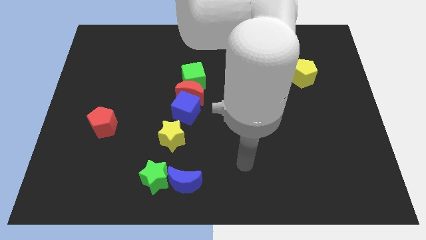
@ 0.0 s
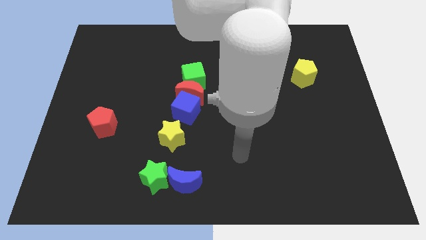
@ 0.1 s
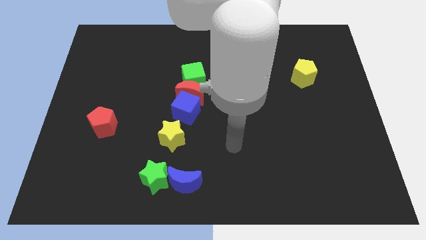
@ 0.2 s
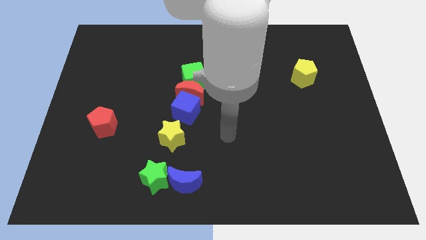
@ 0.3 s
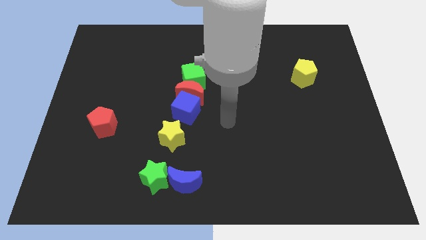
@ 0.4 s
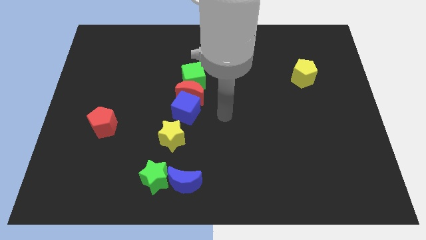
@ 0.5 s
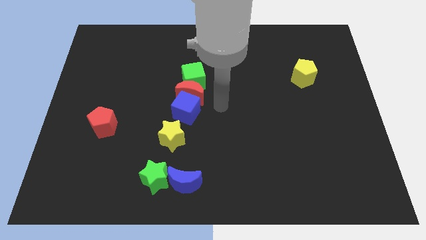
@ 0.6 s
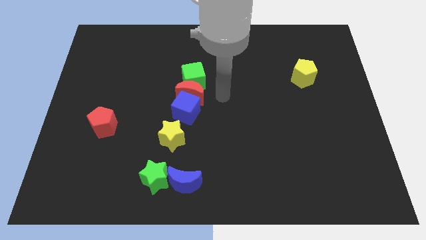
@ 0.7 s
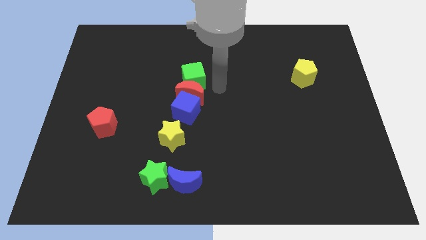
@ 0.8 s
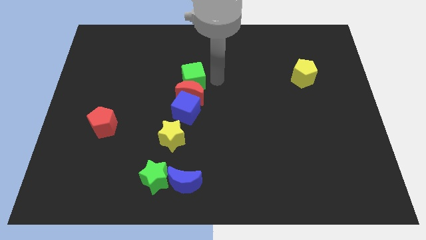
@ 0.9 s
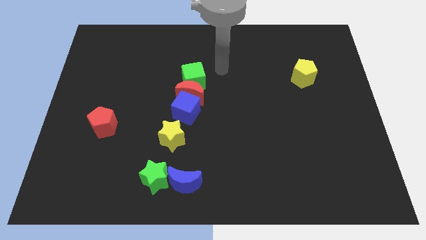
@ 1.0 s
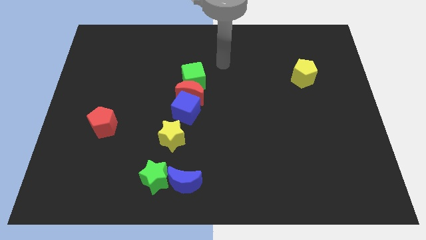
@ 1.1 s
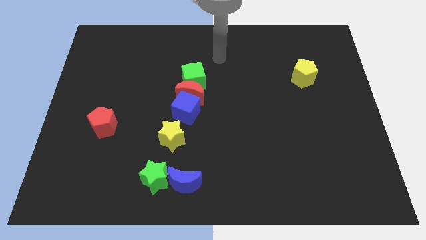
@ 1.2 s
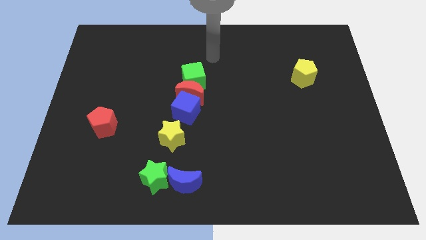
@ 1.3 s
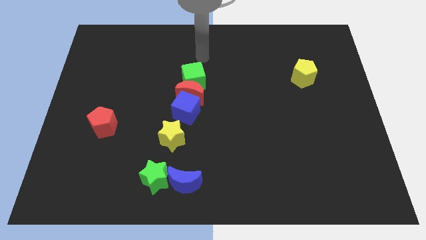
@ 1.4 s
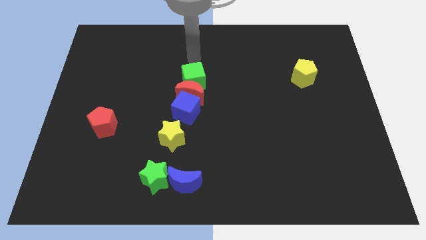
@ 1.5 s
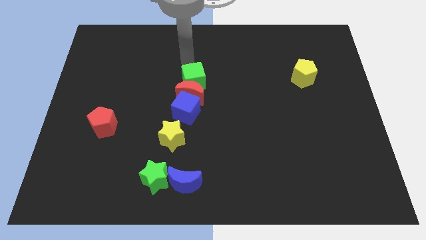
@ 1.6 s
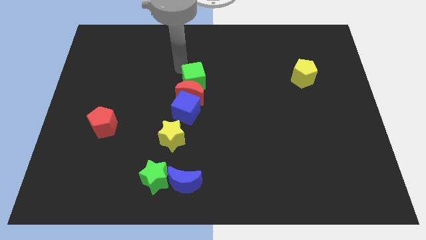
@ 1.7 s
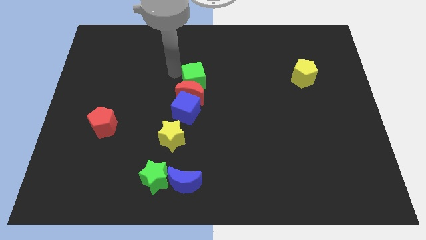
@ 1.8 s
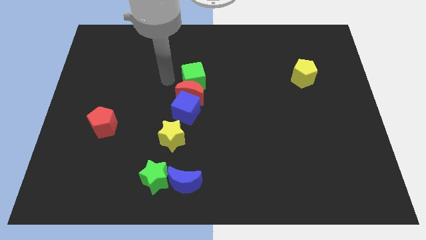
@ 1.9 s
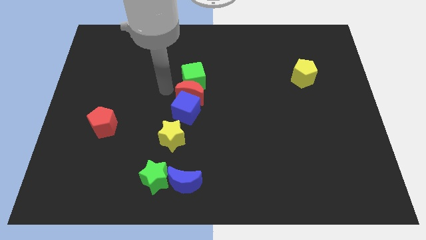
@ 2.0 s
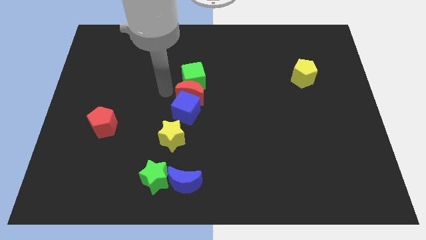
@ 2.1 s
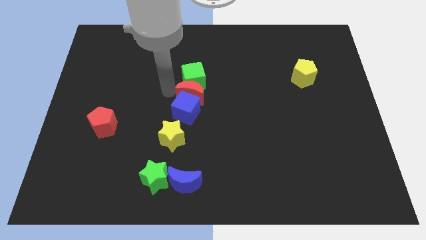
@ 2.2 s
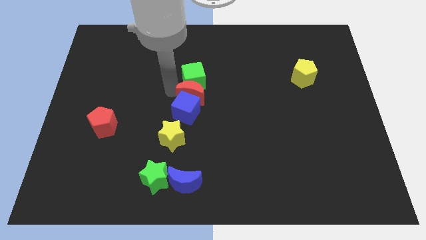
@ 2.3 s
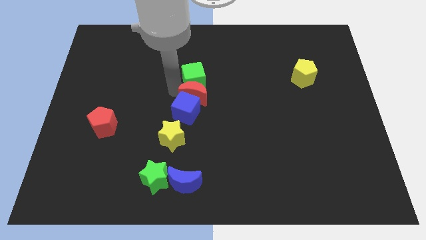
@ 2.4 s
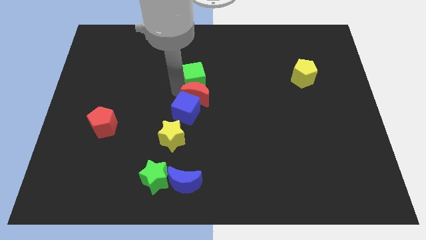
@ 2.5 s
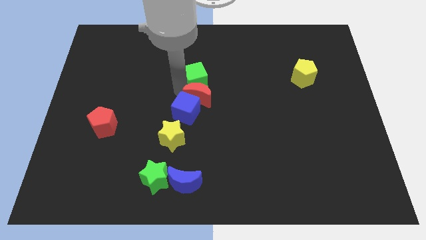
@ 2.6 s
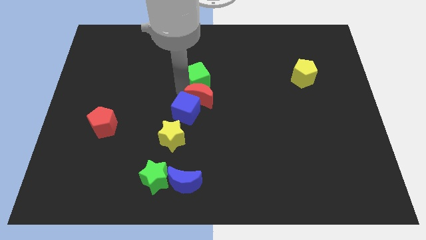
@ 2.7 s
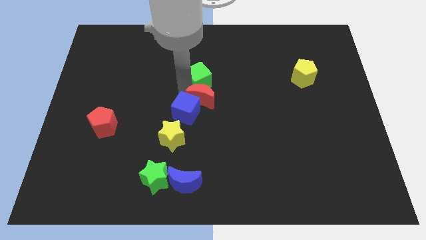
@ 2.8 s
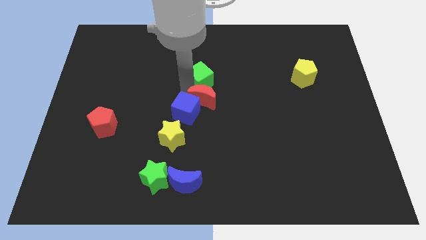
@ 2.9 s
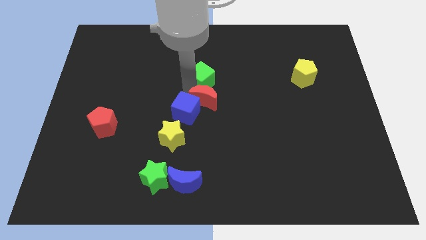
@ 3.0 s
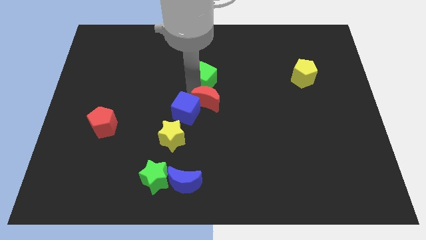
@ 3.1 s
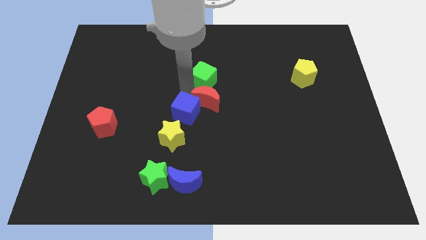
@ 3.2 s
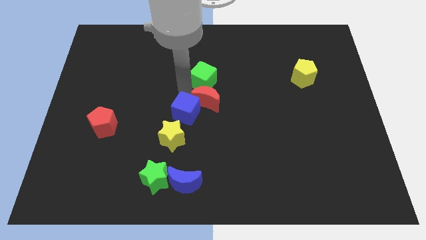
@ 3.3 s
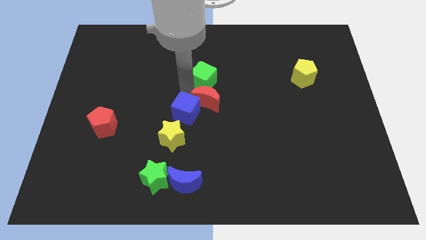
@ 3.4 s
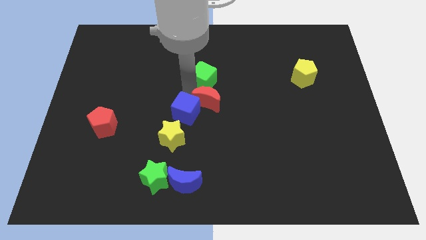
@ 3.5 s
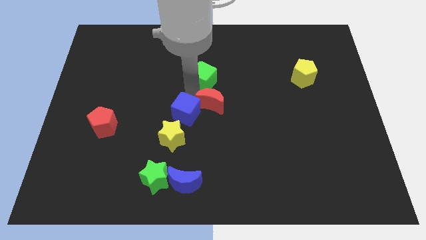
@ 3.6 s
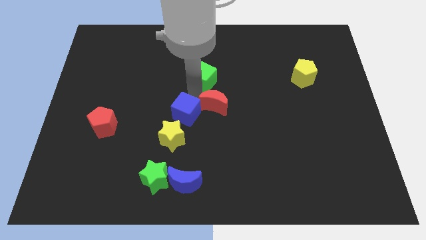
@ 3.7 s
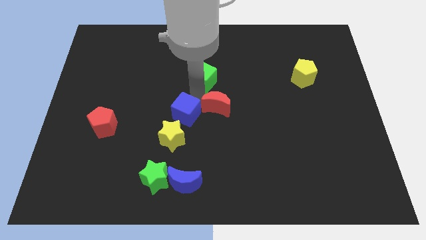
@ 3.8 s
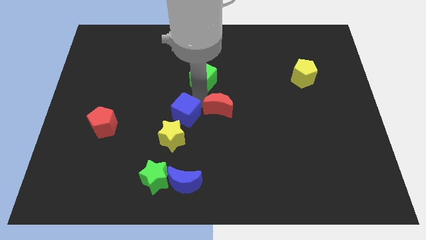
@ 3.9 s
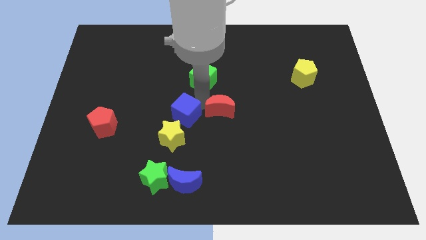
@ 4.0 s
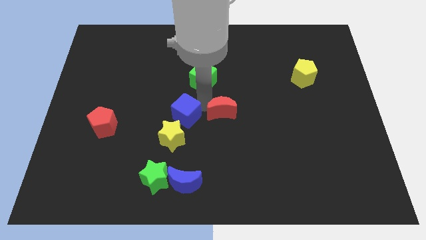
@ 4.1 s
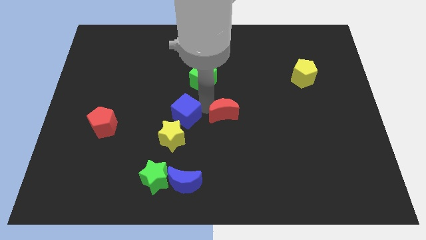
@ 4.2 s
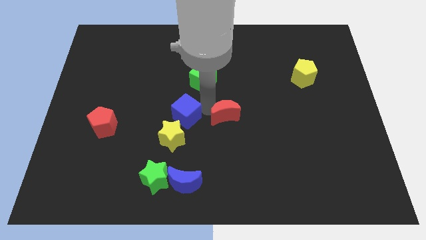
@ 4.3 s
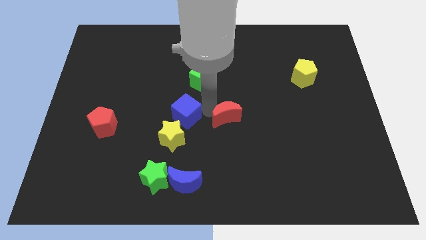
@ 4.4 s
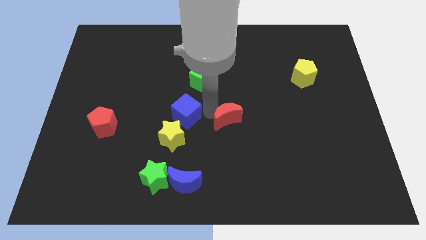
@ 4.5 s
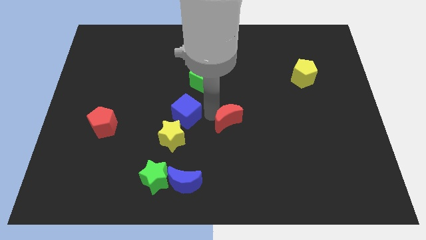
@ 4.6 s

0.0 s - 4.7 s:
pull the red moon apart from the green cube and blue cube

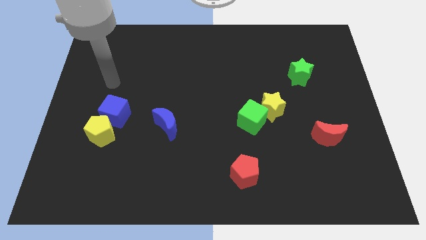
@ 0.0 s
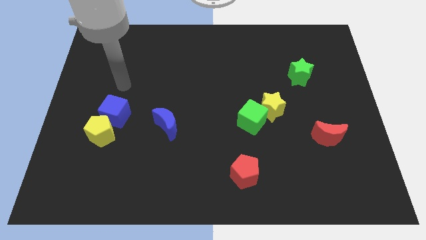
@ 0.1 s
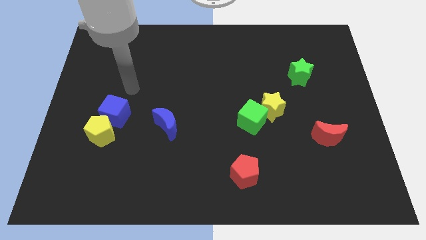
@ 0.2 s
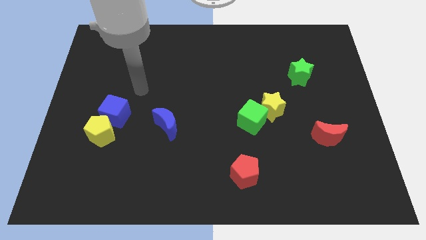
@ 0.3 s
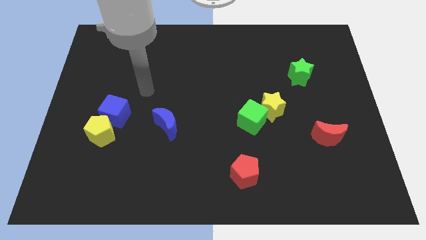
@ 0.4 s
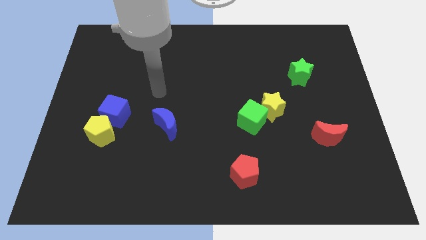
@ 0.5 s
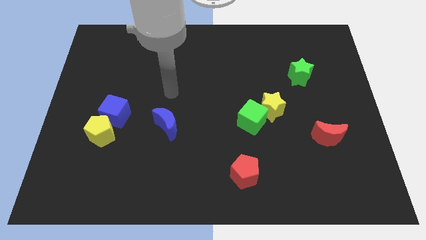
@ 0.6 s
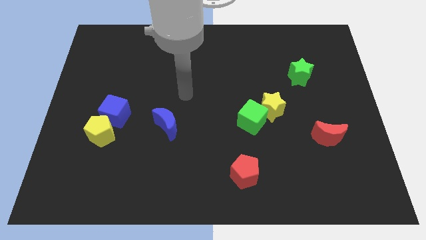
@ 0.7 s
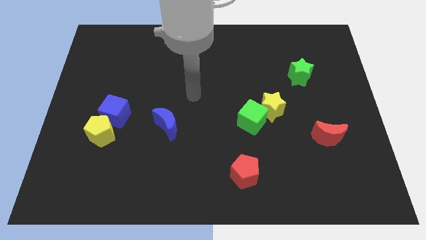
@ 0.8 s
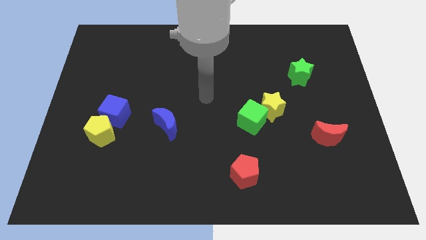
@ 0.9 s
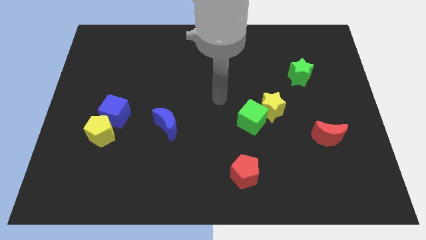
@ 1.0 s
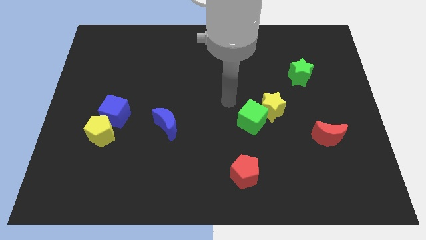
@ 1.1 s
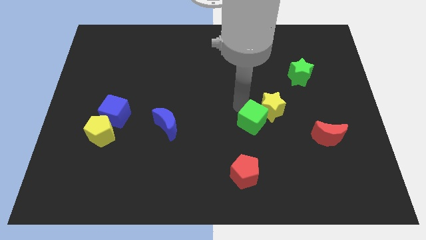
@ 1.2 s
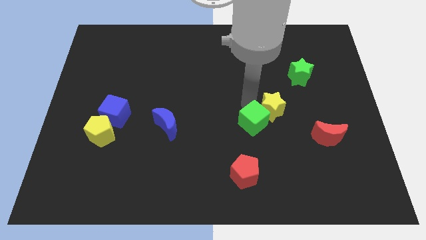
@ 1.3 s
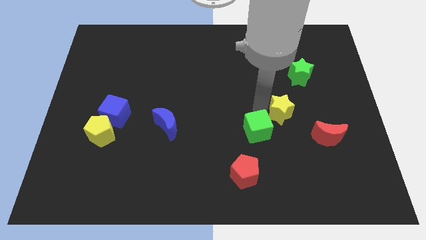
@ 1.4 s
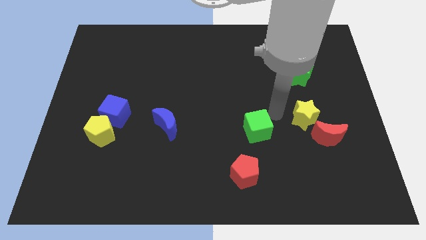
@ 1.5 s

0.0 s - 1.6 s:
separate the green cube from the yellow star

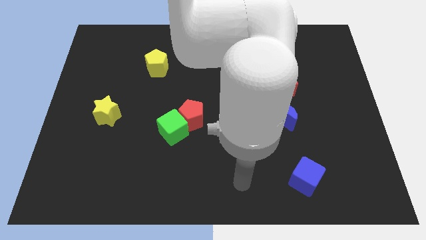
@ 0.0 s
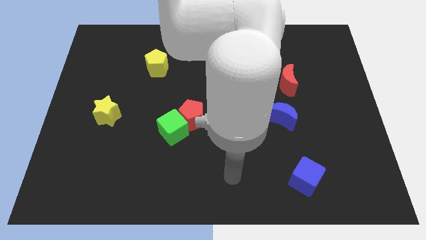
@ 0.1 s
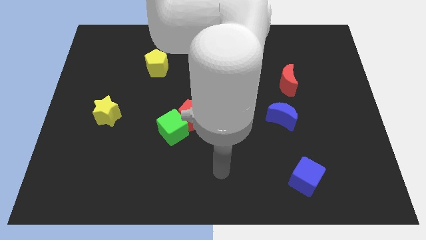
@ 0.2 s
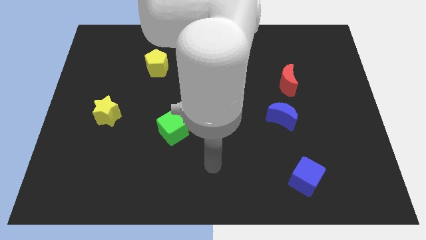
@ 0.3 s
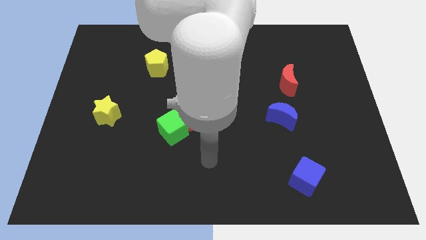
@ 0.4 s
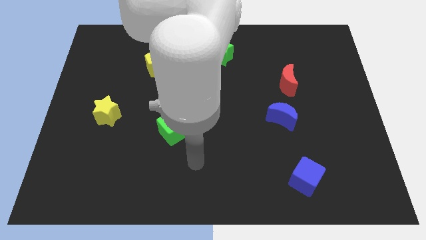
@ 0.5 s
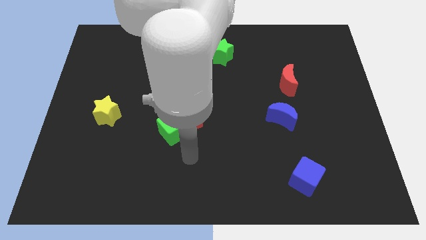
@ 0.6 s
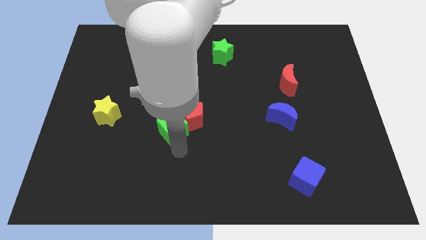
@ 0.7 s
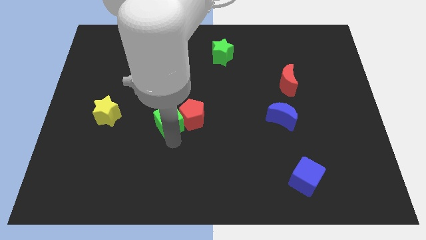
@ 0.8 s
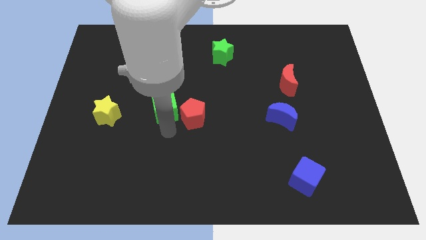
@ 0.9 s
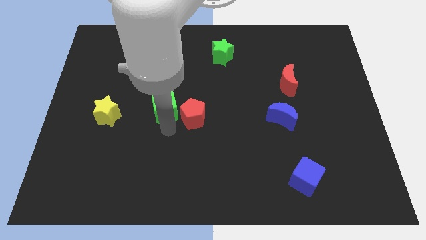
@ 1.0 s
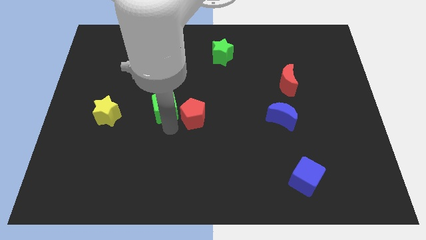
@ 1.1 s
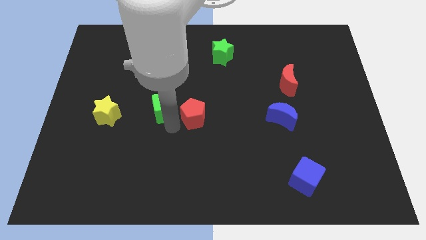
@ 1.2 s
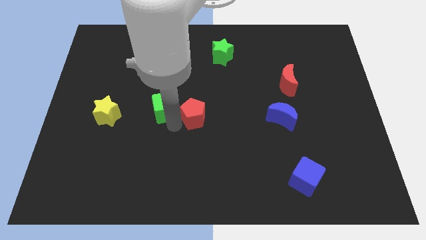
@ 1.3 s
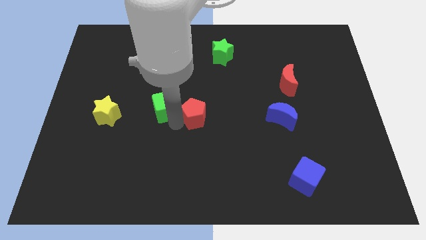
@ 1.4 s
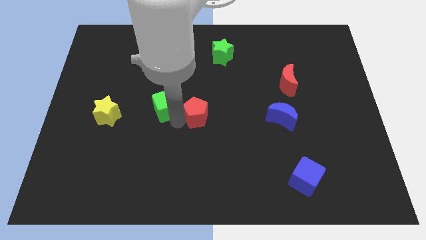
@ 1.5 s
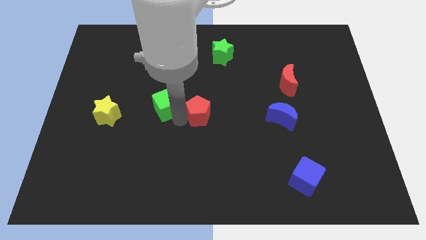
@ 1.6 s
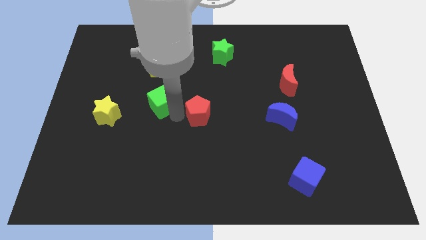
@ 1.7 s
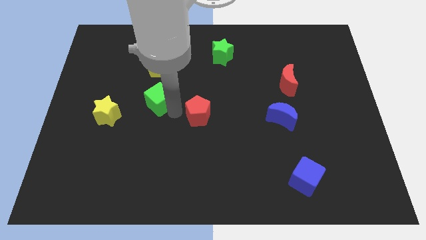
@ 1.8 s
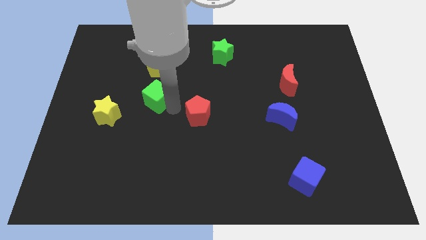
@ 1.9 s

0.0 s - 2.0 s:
move the red pentagon away from the green cube

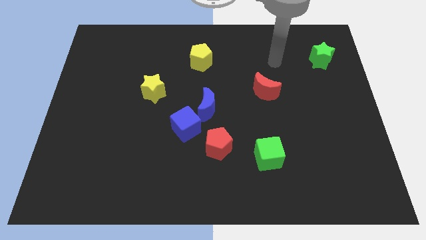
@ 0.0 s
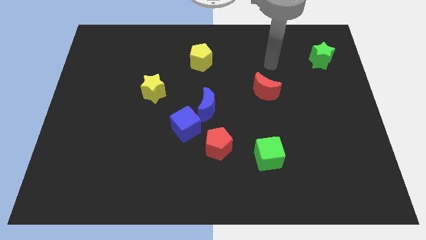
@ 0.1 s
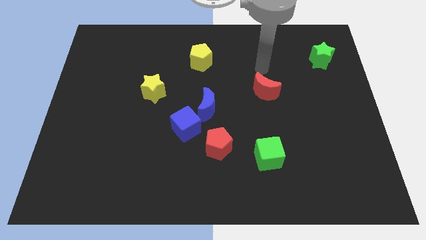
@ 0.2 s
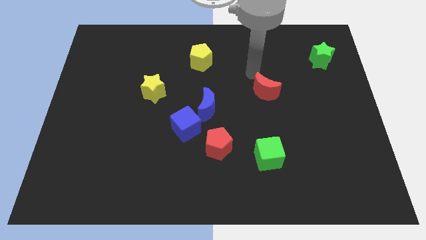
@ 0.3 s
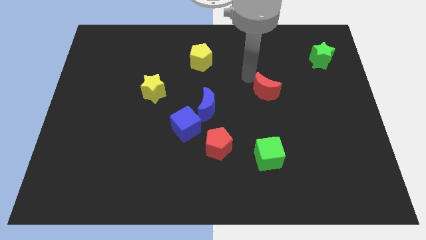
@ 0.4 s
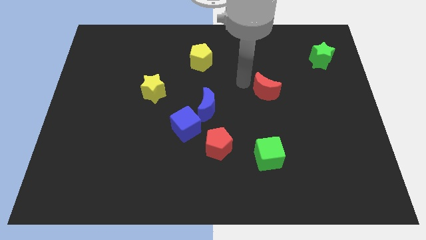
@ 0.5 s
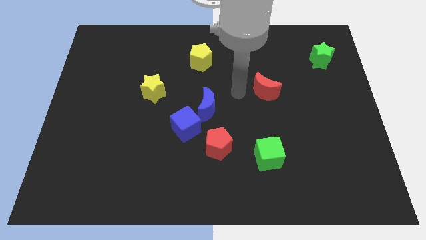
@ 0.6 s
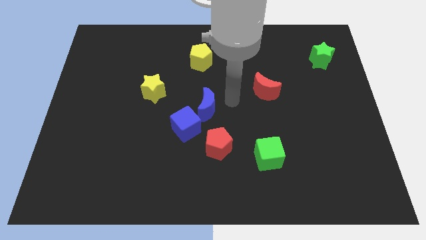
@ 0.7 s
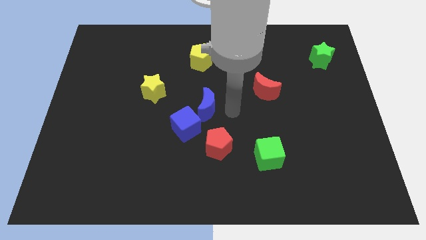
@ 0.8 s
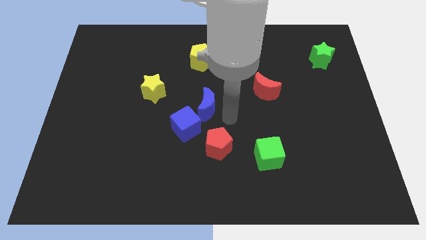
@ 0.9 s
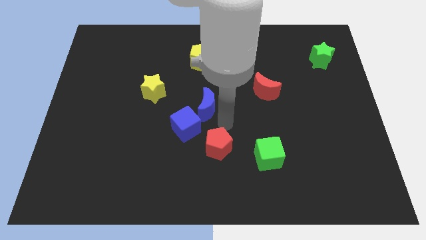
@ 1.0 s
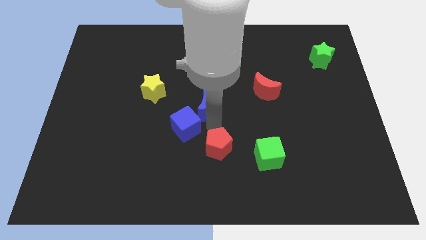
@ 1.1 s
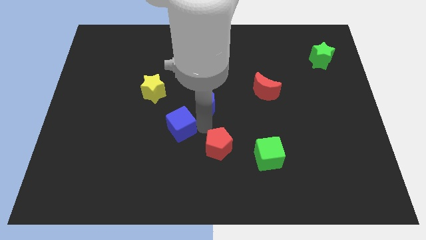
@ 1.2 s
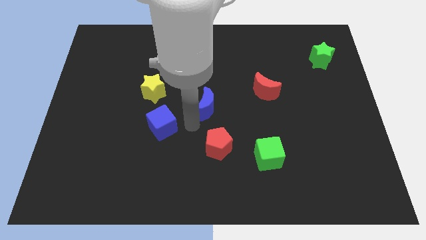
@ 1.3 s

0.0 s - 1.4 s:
pull the blue moon apart from the blue cube
